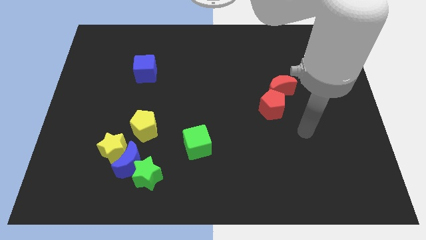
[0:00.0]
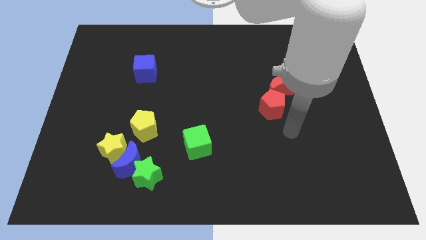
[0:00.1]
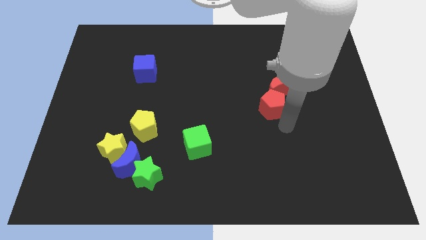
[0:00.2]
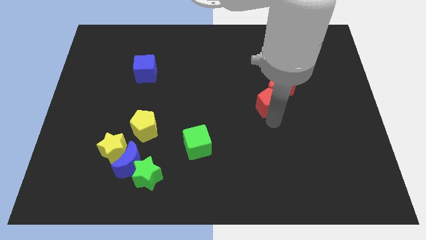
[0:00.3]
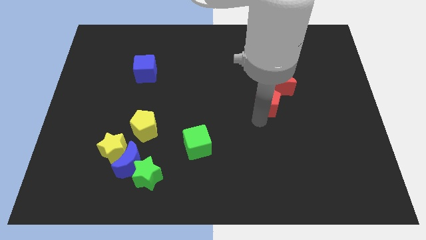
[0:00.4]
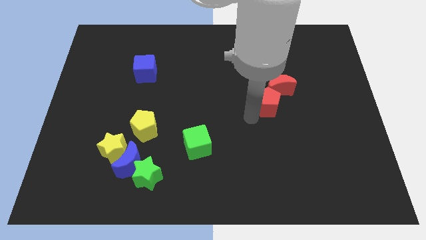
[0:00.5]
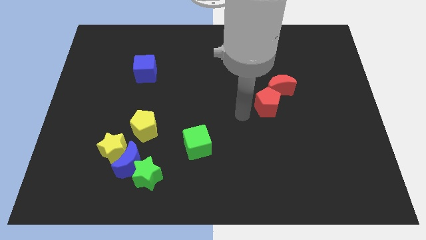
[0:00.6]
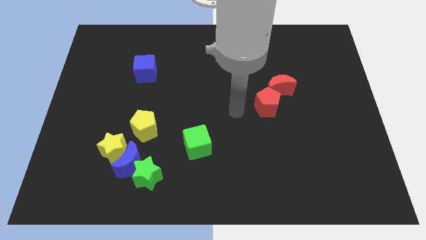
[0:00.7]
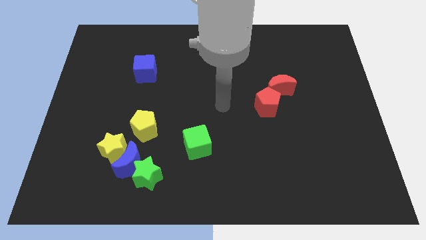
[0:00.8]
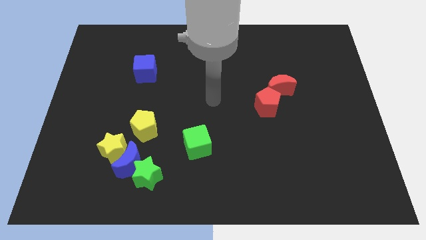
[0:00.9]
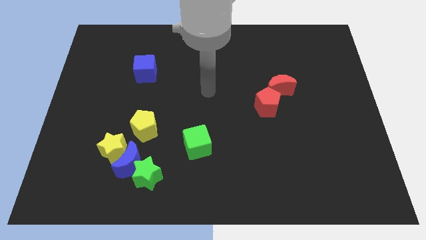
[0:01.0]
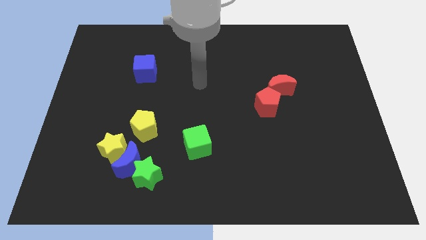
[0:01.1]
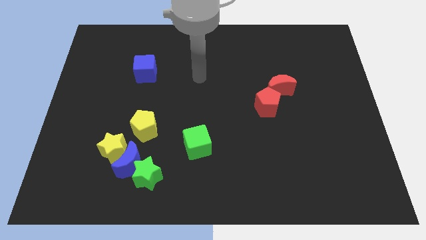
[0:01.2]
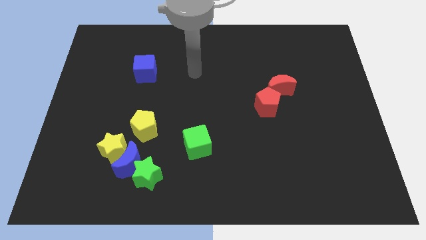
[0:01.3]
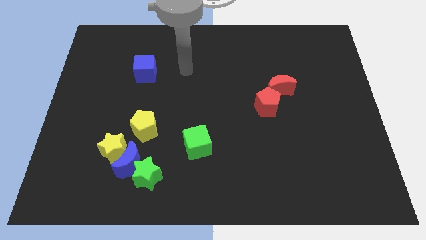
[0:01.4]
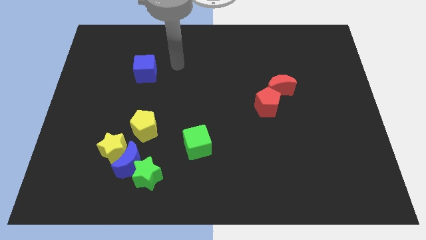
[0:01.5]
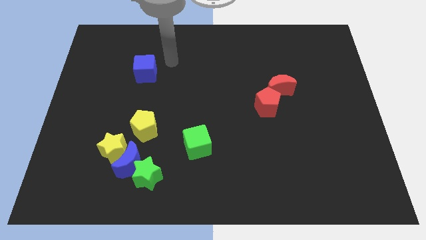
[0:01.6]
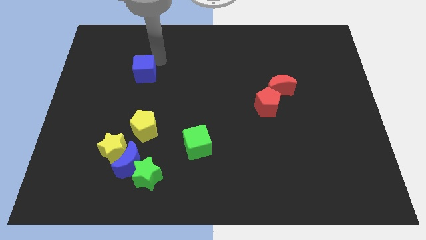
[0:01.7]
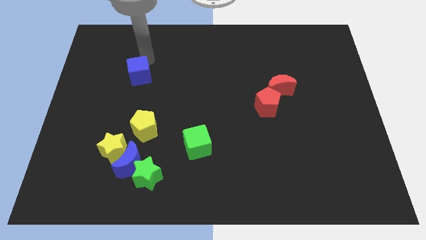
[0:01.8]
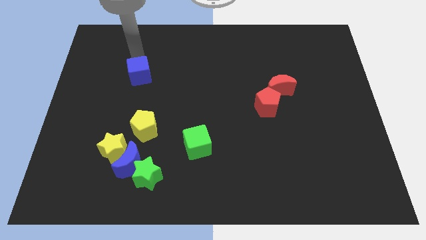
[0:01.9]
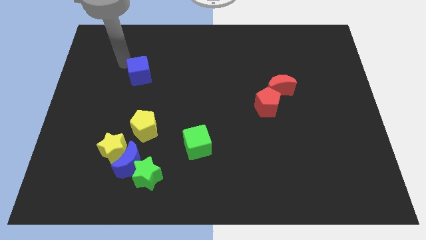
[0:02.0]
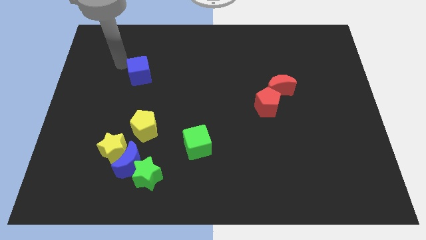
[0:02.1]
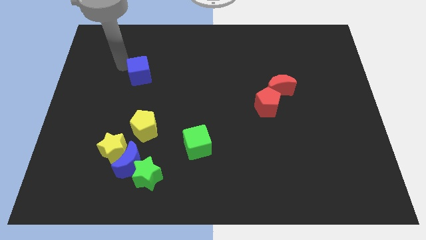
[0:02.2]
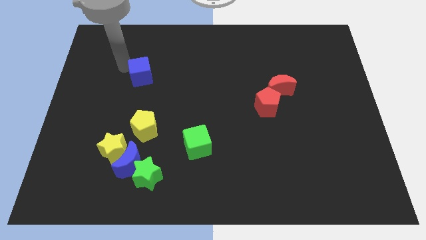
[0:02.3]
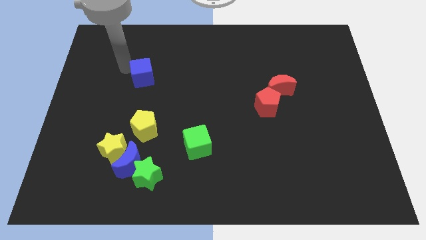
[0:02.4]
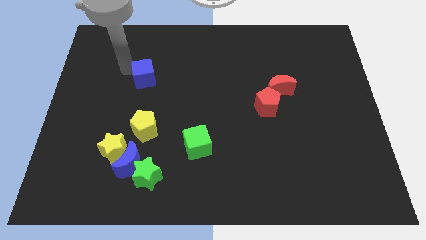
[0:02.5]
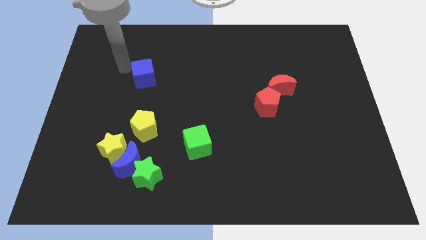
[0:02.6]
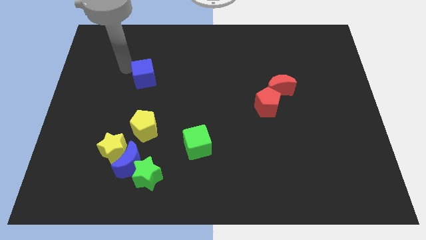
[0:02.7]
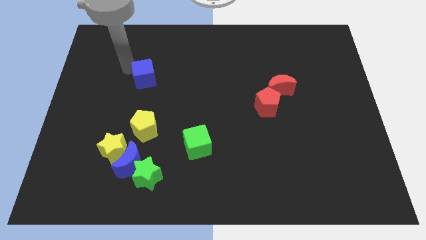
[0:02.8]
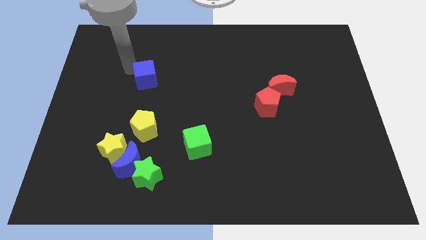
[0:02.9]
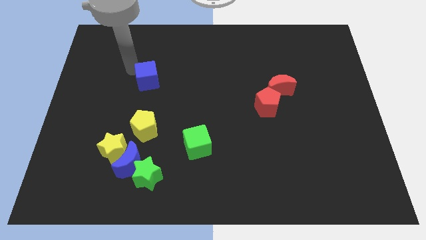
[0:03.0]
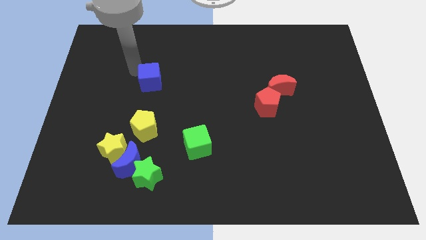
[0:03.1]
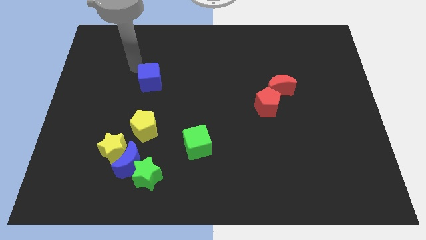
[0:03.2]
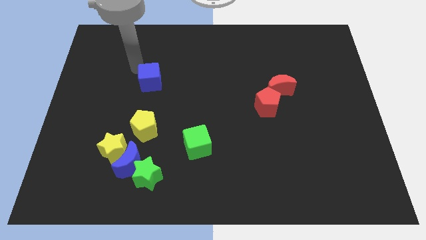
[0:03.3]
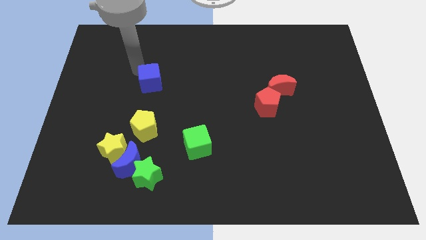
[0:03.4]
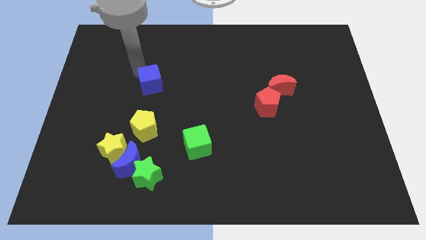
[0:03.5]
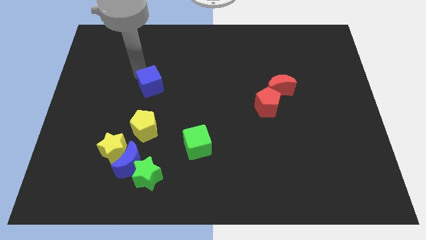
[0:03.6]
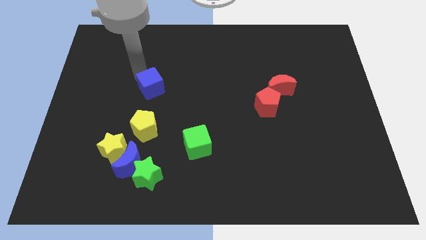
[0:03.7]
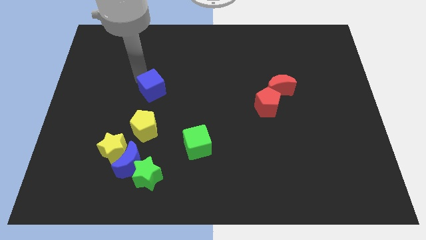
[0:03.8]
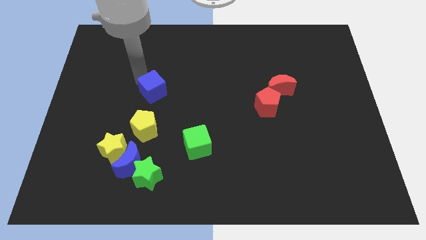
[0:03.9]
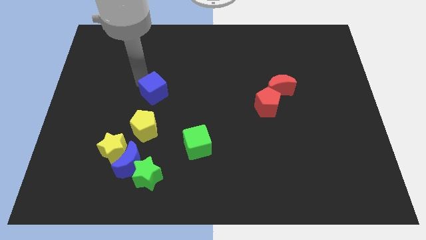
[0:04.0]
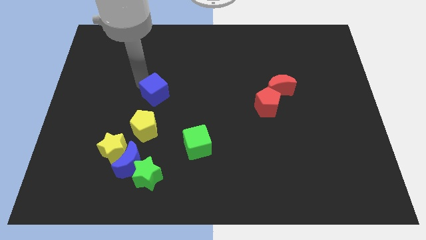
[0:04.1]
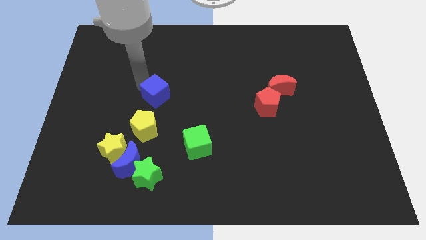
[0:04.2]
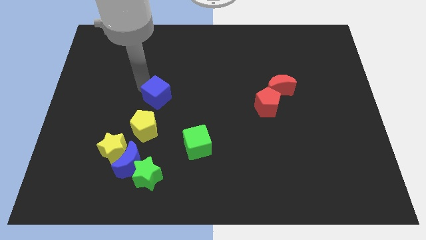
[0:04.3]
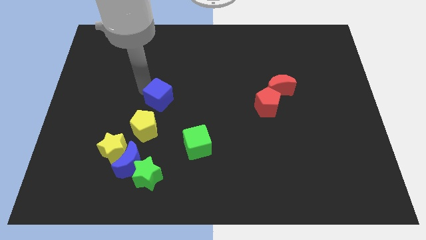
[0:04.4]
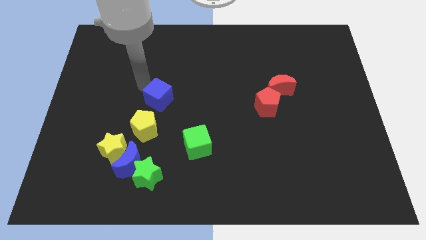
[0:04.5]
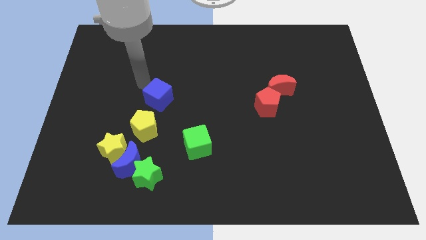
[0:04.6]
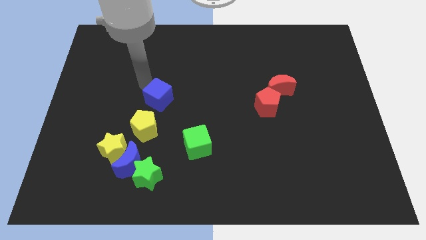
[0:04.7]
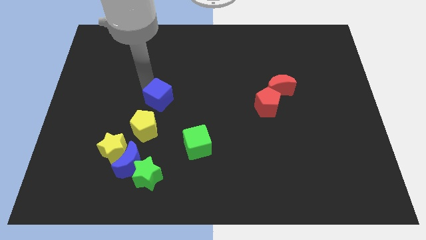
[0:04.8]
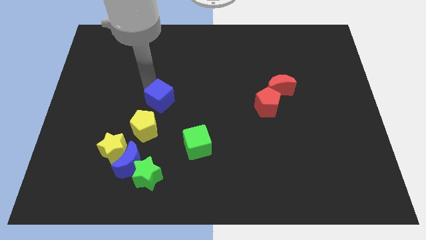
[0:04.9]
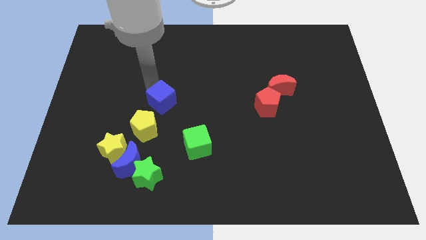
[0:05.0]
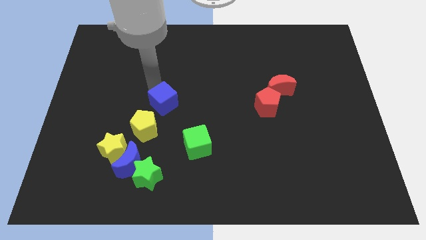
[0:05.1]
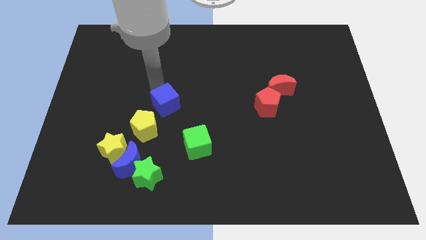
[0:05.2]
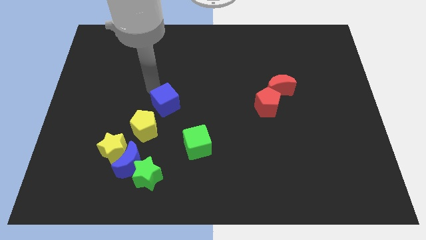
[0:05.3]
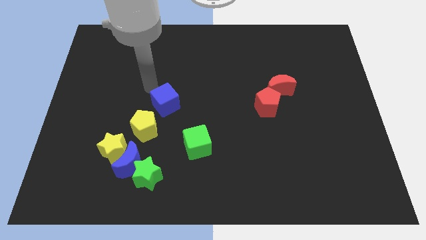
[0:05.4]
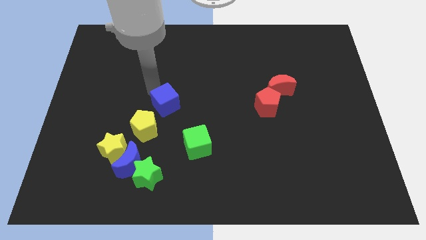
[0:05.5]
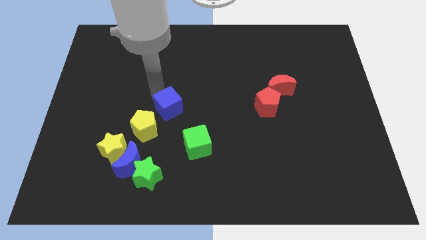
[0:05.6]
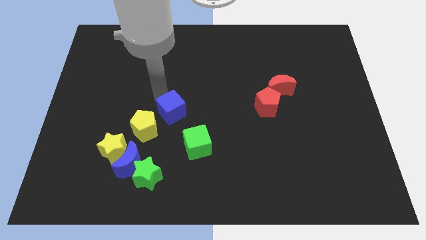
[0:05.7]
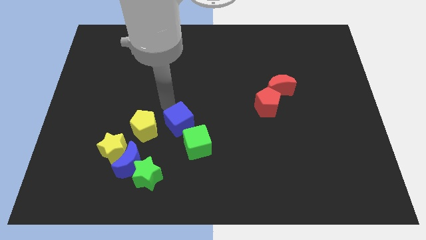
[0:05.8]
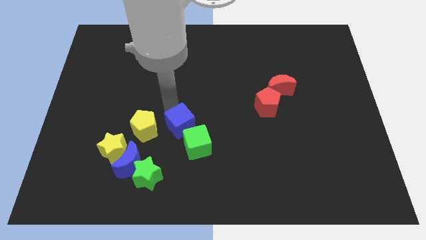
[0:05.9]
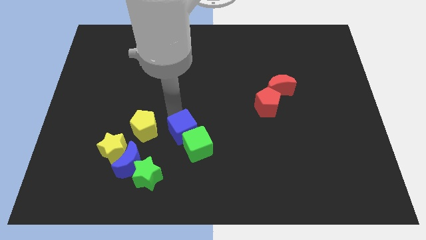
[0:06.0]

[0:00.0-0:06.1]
push the blue cube to the green cube

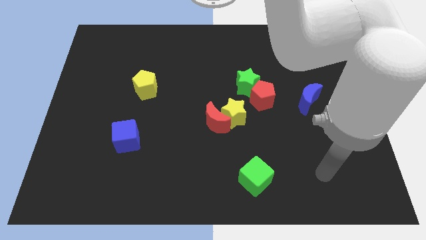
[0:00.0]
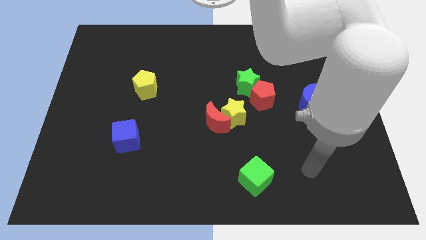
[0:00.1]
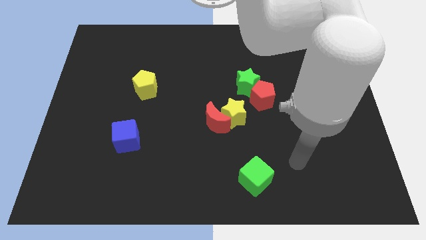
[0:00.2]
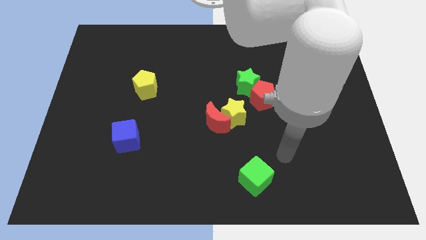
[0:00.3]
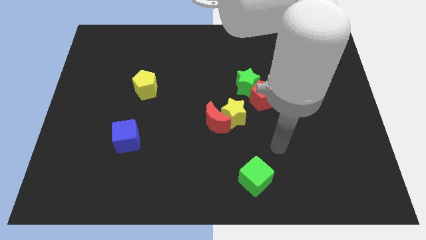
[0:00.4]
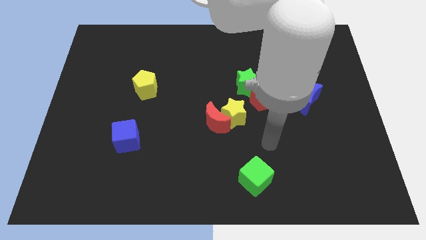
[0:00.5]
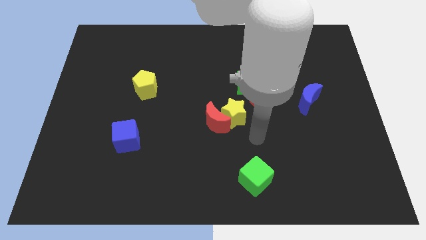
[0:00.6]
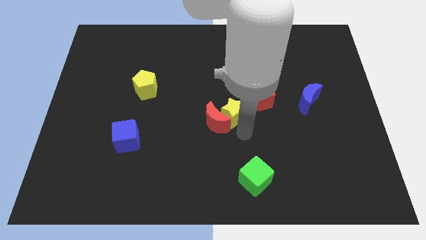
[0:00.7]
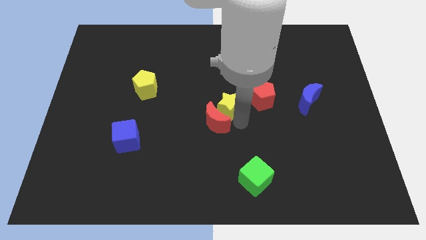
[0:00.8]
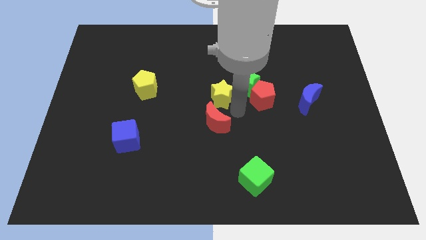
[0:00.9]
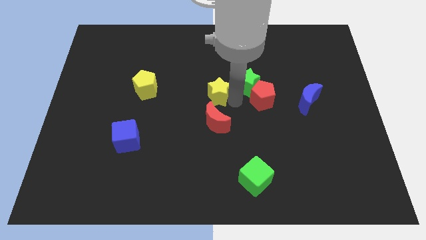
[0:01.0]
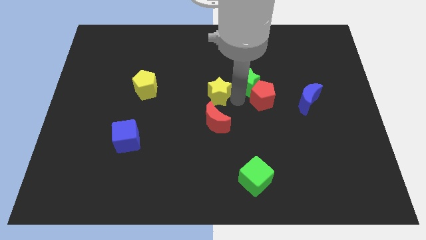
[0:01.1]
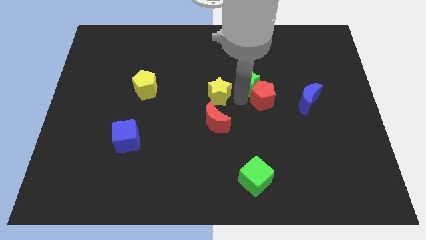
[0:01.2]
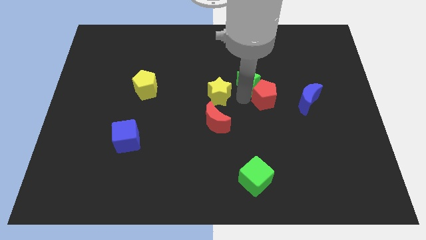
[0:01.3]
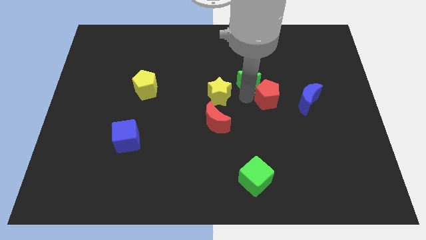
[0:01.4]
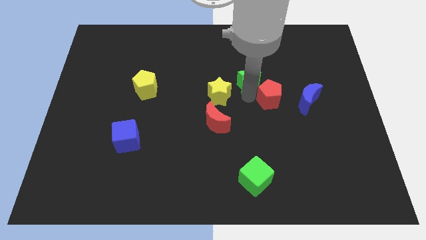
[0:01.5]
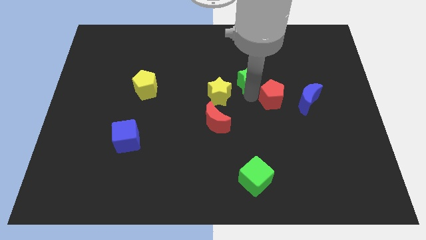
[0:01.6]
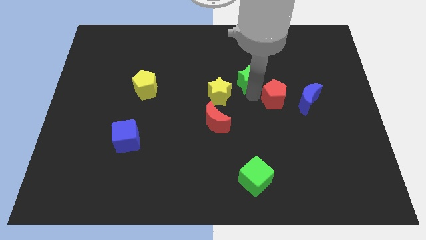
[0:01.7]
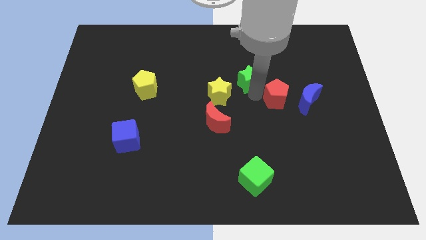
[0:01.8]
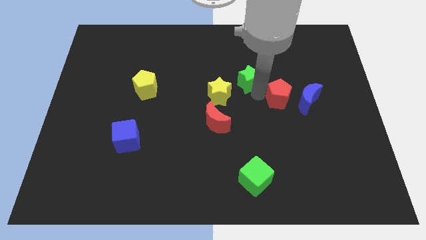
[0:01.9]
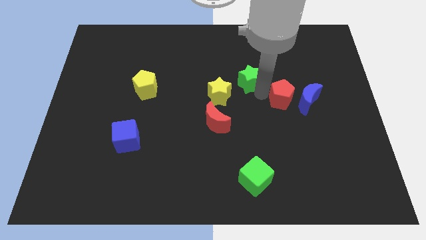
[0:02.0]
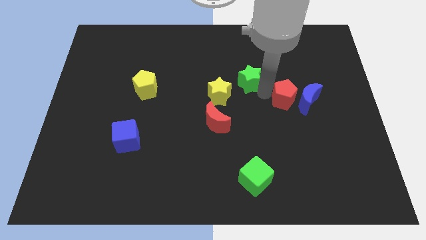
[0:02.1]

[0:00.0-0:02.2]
push the red pentagon to the blue moon
